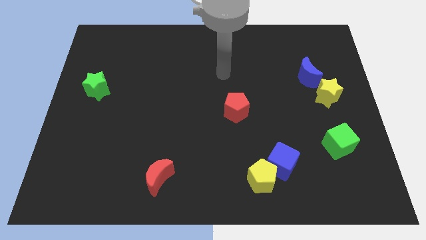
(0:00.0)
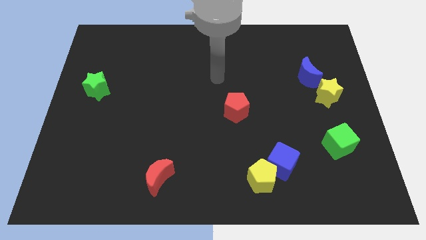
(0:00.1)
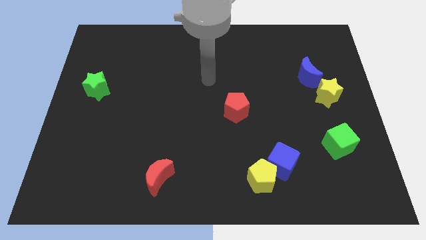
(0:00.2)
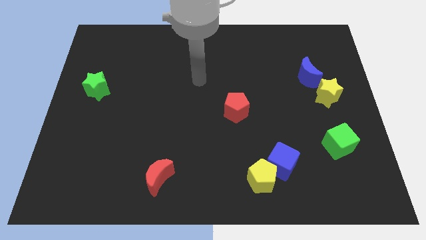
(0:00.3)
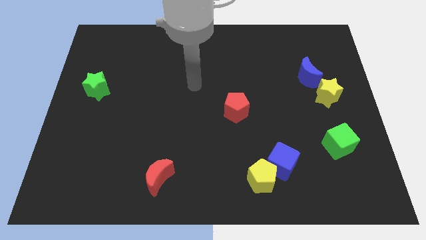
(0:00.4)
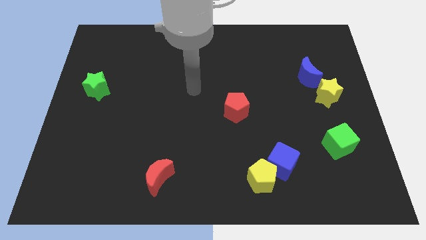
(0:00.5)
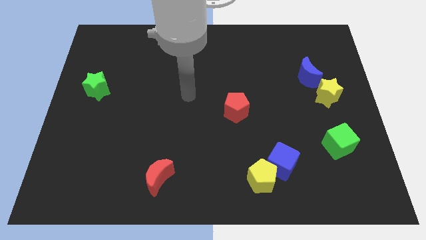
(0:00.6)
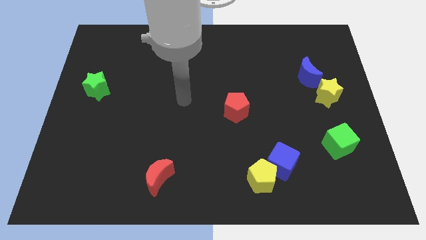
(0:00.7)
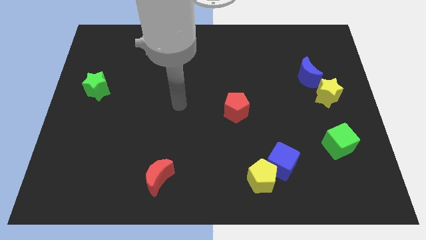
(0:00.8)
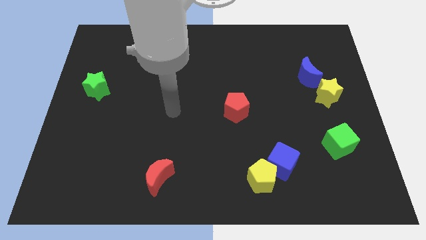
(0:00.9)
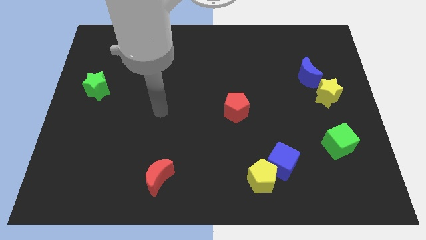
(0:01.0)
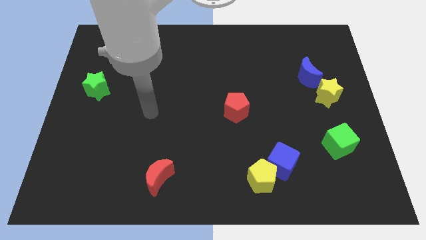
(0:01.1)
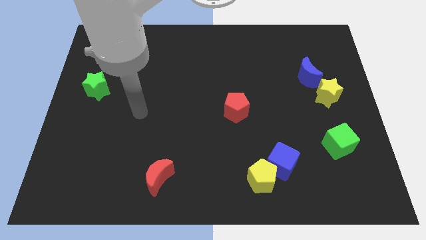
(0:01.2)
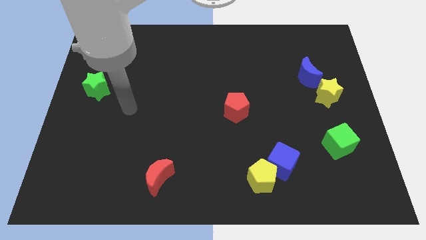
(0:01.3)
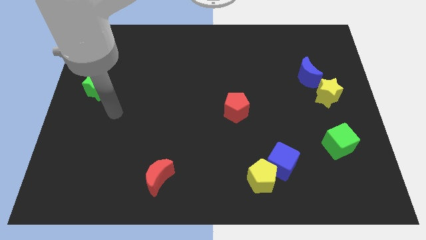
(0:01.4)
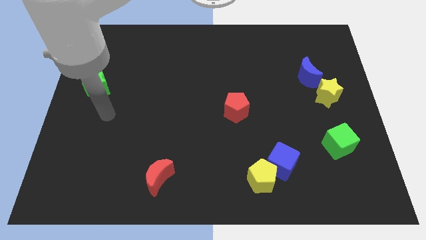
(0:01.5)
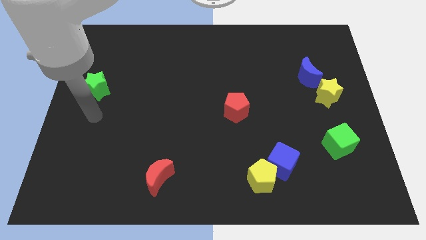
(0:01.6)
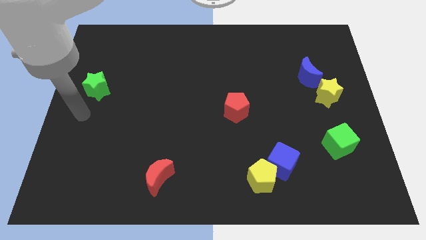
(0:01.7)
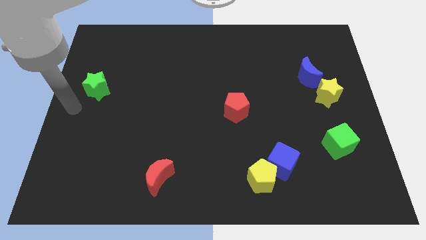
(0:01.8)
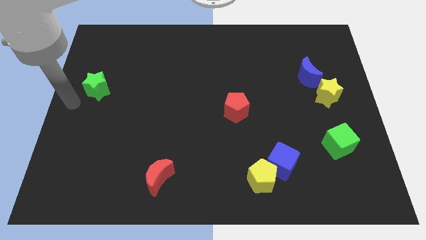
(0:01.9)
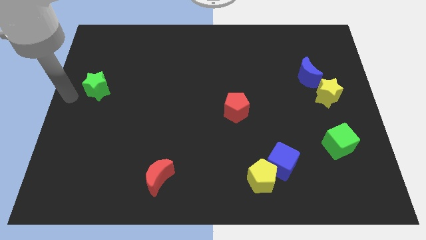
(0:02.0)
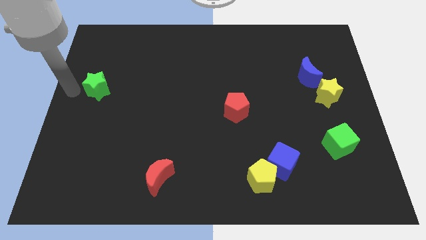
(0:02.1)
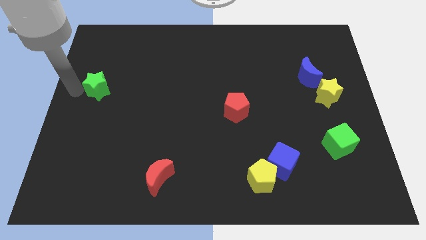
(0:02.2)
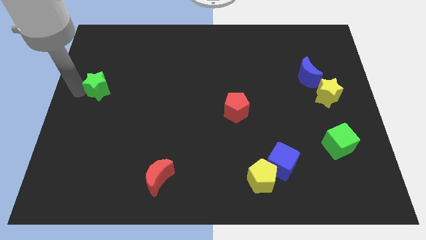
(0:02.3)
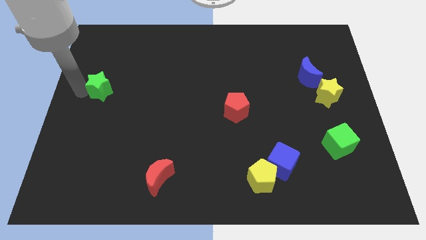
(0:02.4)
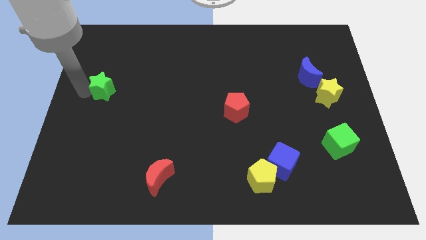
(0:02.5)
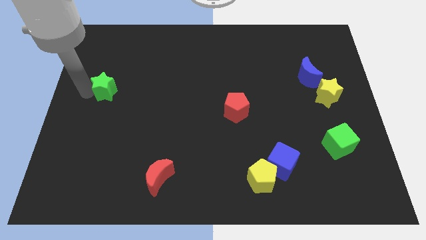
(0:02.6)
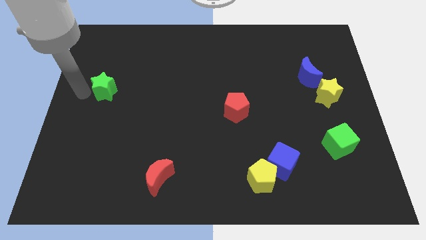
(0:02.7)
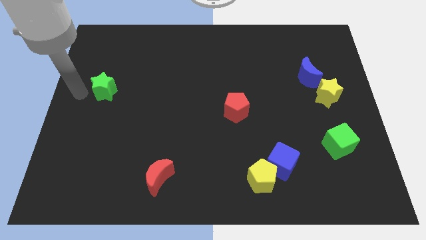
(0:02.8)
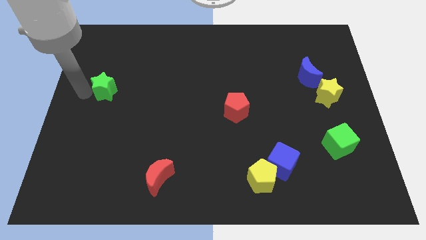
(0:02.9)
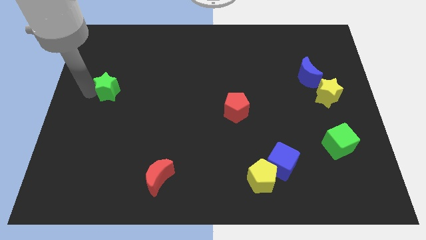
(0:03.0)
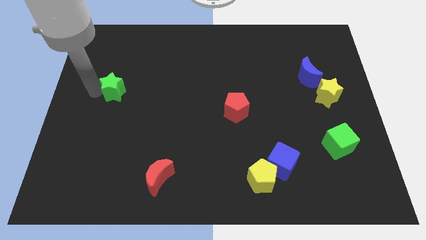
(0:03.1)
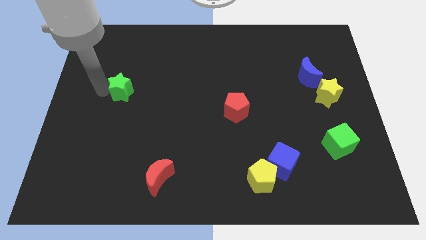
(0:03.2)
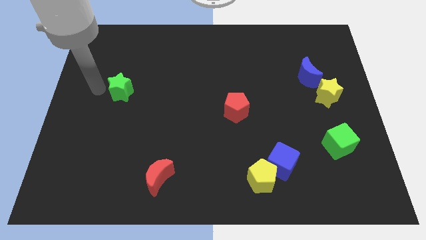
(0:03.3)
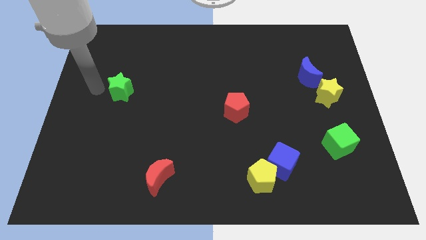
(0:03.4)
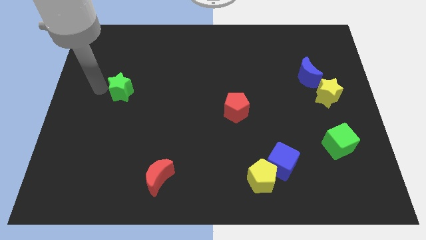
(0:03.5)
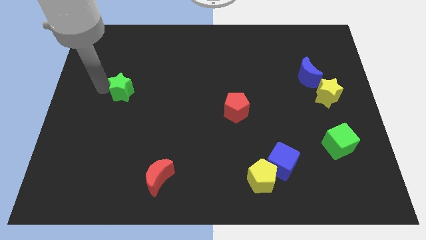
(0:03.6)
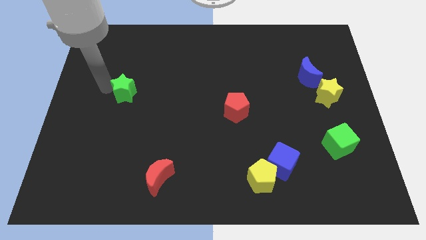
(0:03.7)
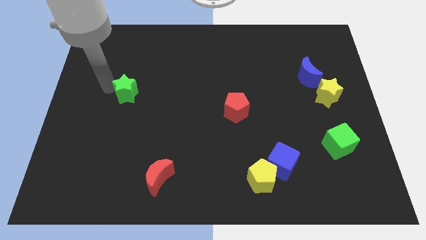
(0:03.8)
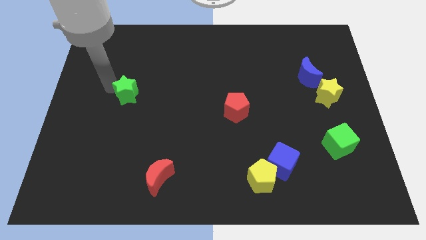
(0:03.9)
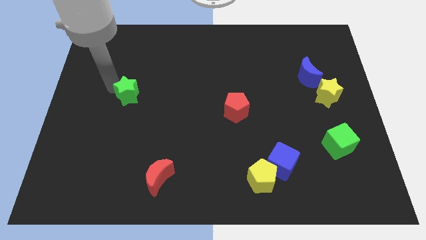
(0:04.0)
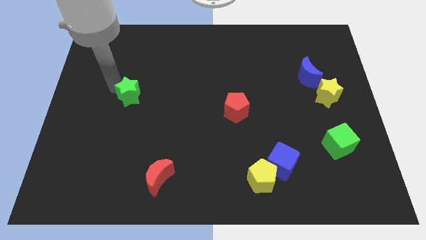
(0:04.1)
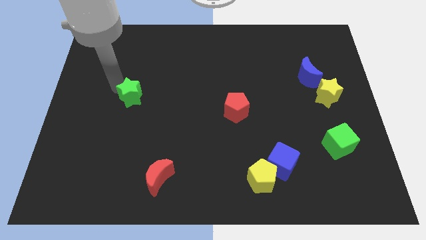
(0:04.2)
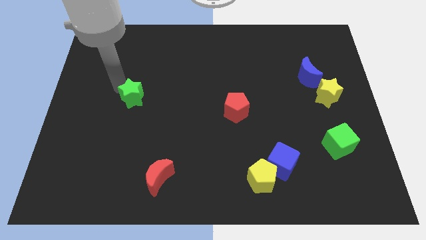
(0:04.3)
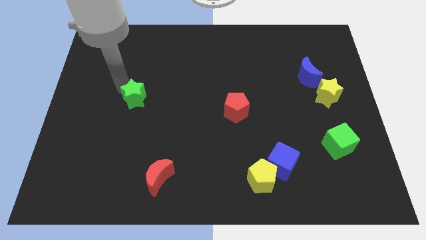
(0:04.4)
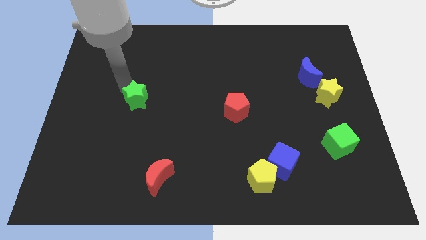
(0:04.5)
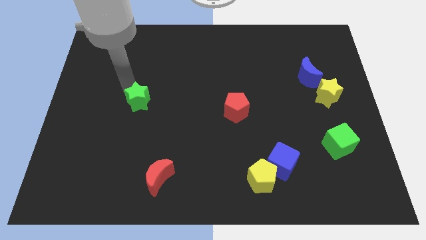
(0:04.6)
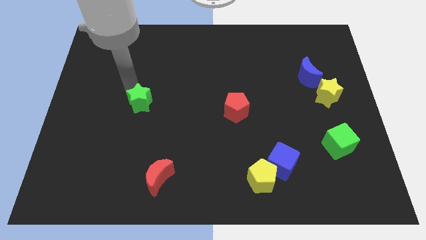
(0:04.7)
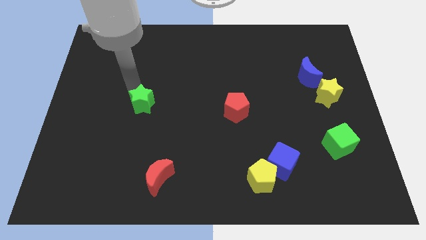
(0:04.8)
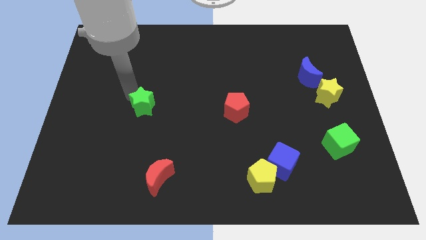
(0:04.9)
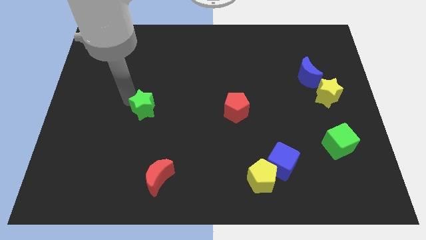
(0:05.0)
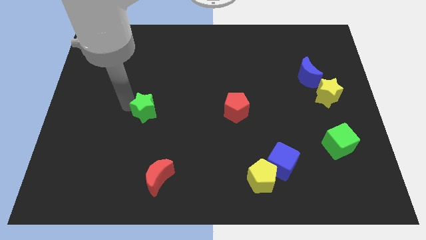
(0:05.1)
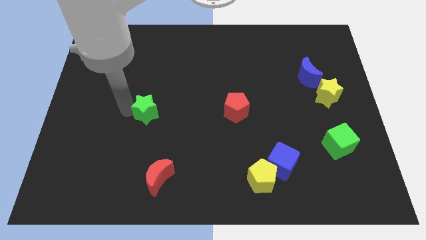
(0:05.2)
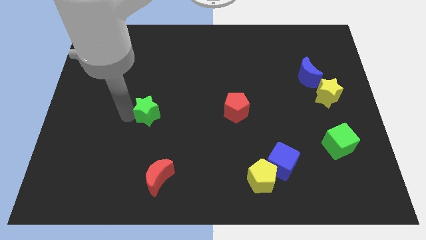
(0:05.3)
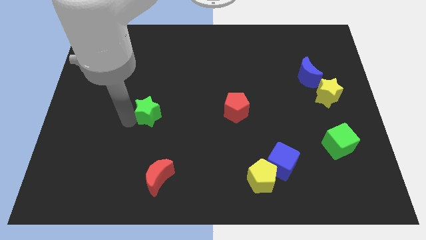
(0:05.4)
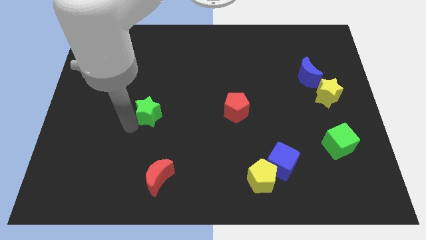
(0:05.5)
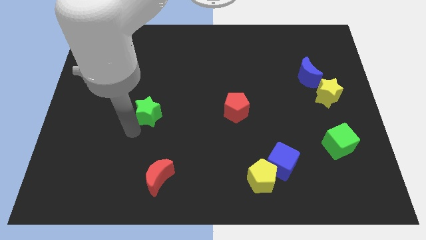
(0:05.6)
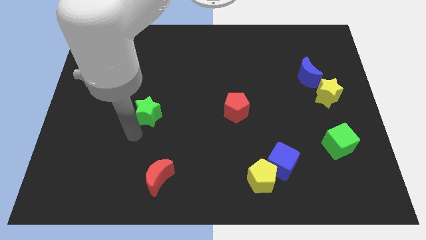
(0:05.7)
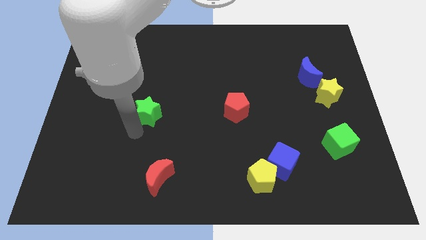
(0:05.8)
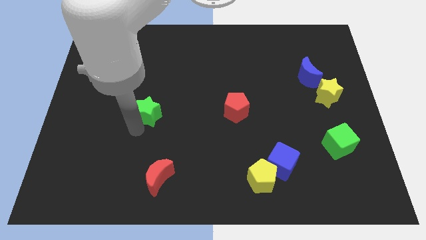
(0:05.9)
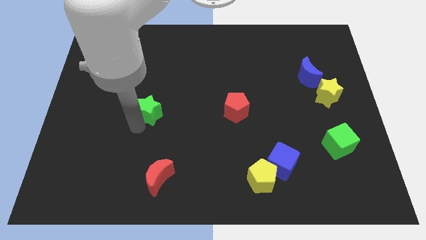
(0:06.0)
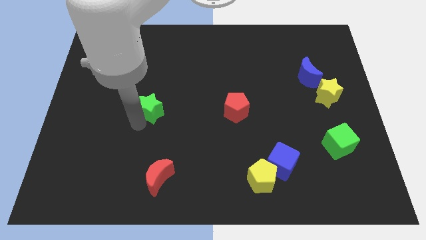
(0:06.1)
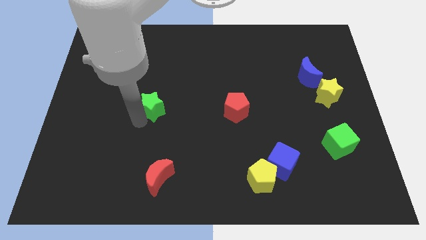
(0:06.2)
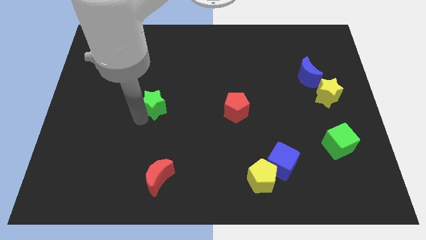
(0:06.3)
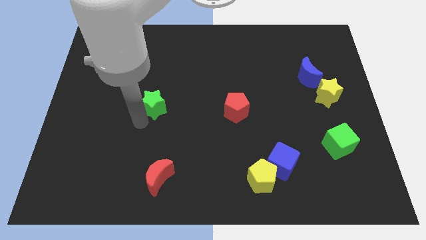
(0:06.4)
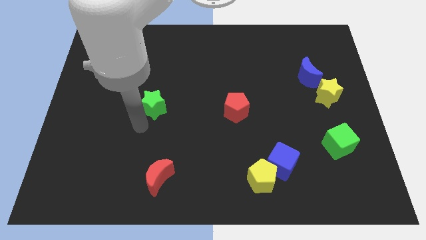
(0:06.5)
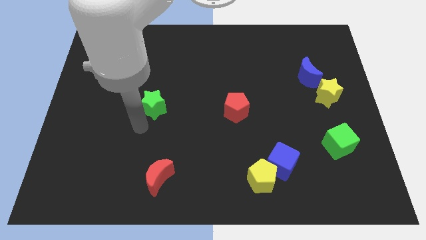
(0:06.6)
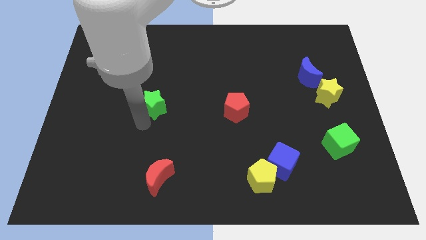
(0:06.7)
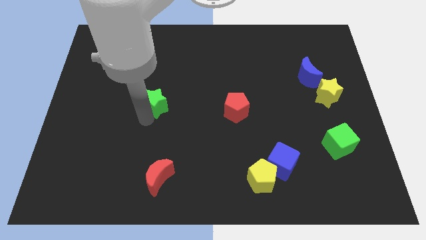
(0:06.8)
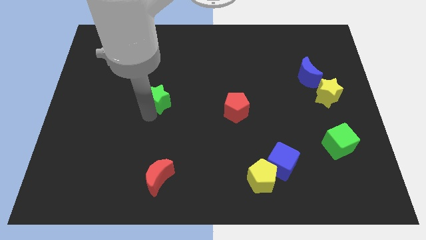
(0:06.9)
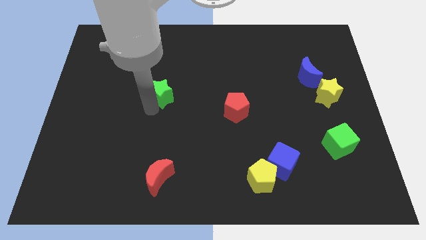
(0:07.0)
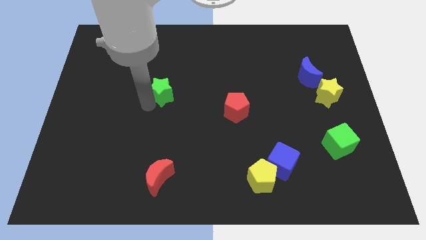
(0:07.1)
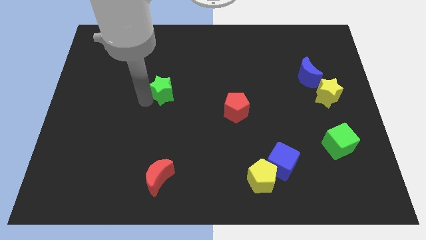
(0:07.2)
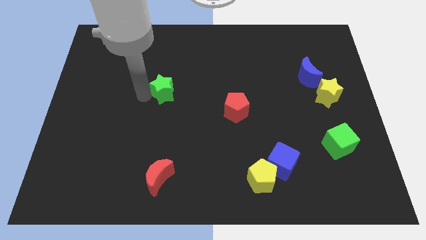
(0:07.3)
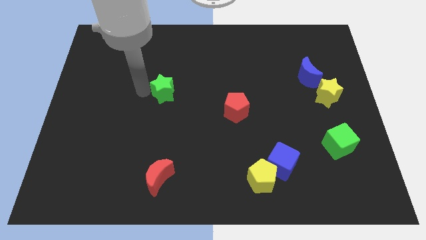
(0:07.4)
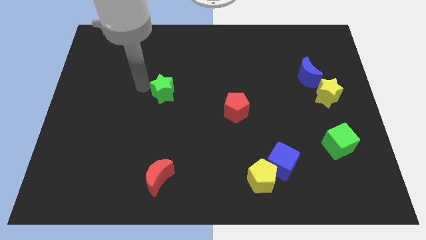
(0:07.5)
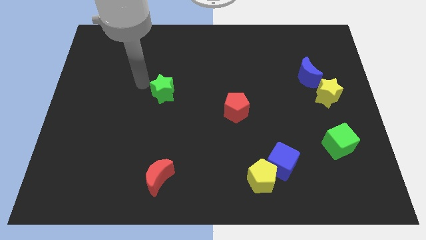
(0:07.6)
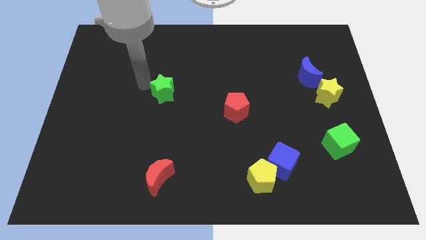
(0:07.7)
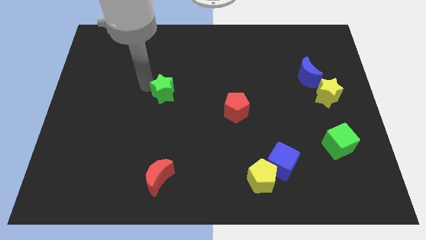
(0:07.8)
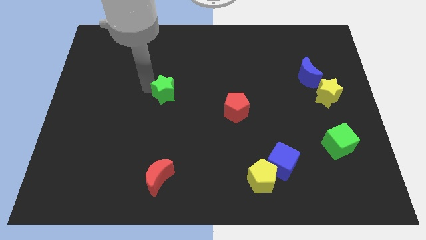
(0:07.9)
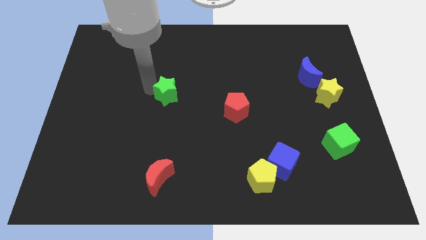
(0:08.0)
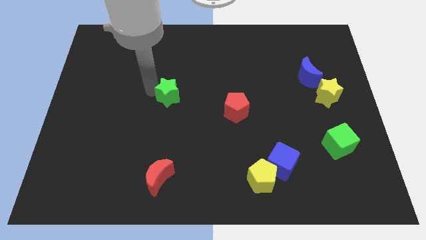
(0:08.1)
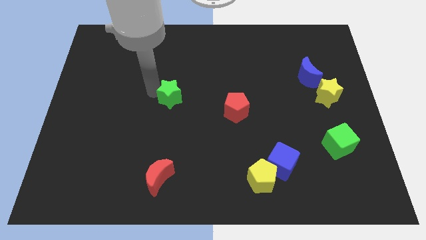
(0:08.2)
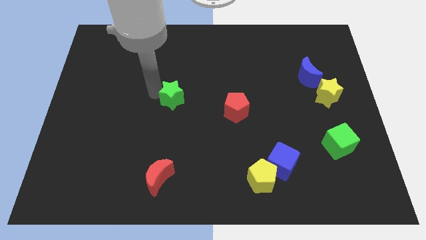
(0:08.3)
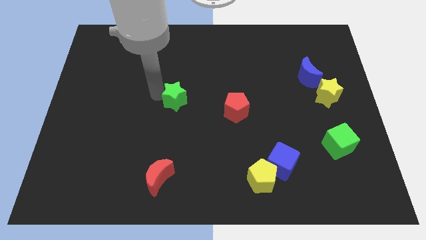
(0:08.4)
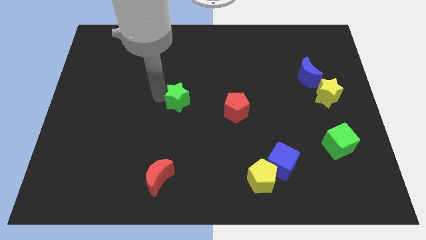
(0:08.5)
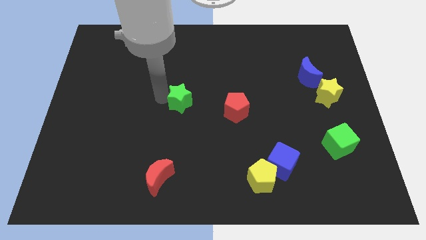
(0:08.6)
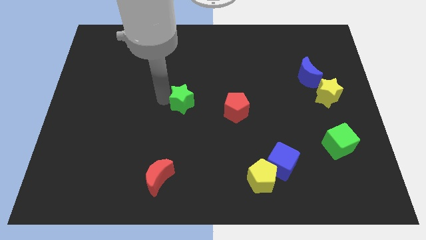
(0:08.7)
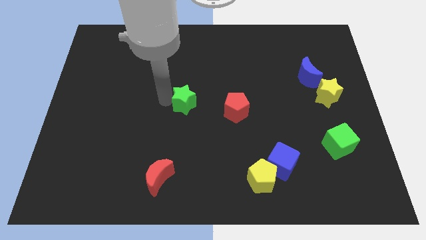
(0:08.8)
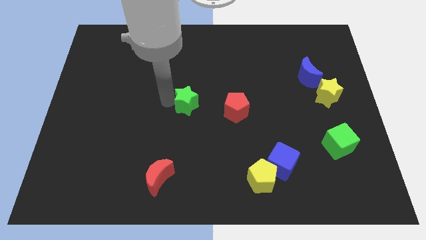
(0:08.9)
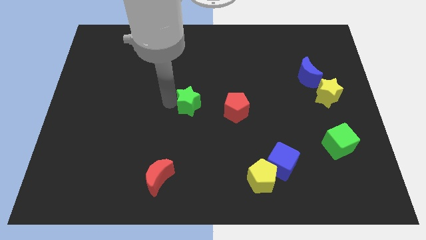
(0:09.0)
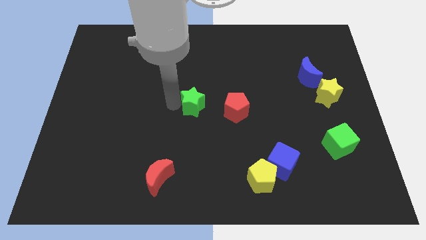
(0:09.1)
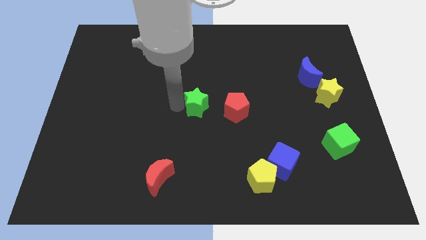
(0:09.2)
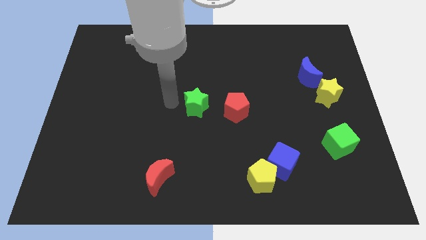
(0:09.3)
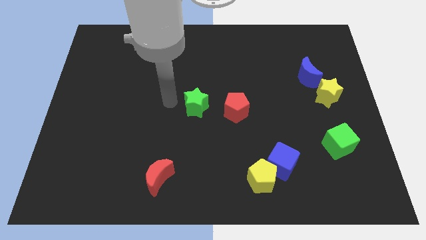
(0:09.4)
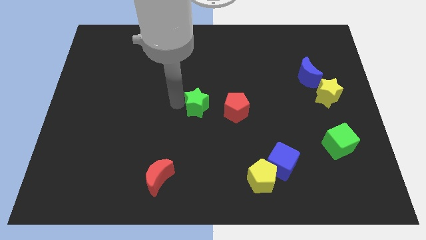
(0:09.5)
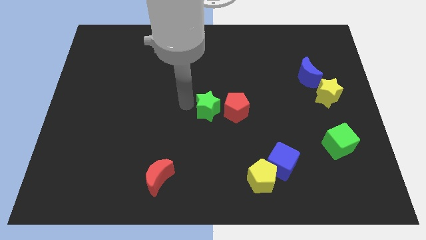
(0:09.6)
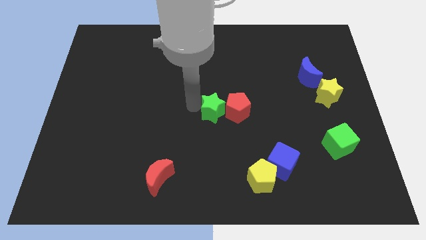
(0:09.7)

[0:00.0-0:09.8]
push the green star next to the red pentagon
